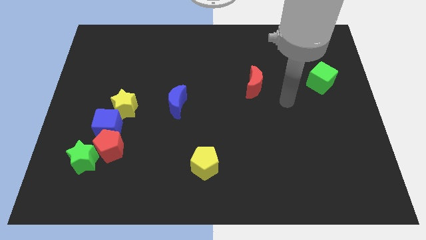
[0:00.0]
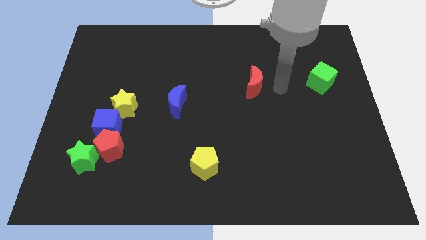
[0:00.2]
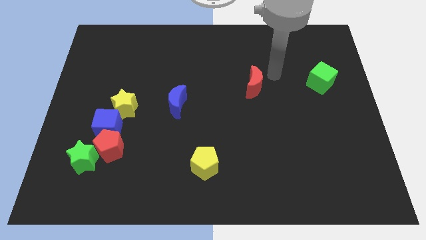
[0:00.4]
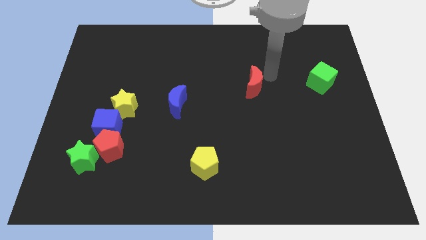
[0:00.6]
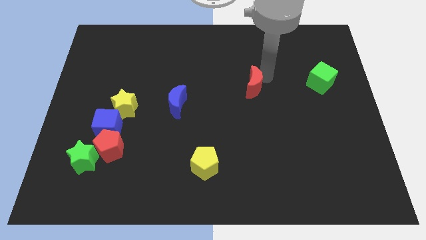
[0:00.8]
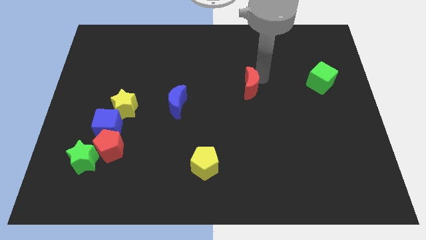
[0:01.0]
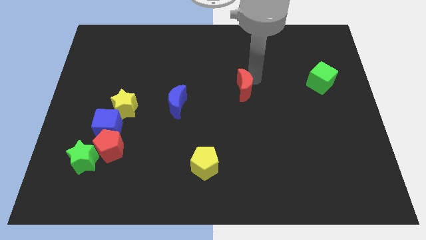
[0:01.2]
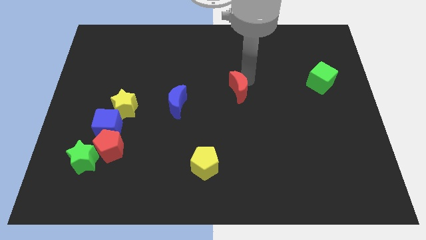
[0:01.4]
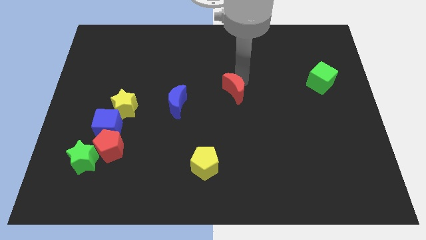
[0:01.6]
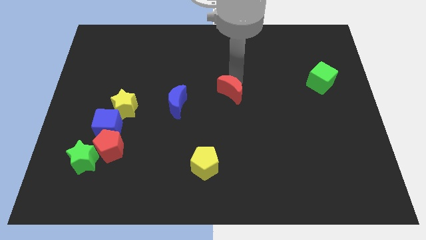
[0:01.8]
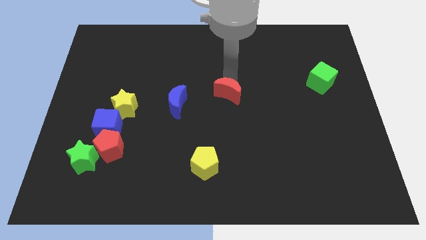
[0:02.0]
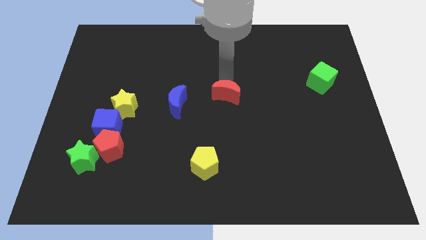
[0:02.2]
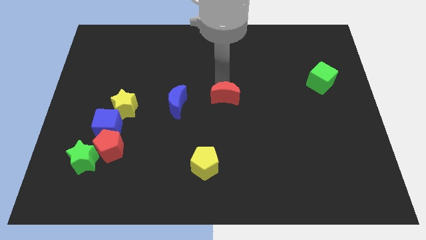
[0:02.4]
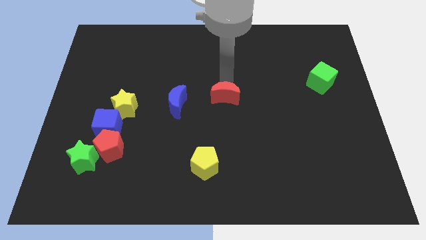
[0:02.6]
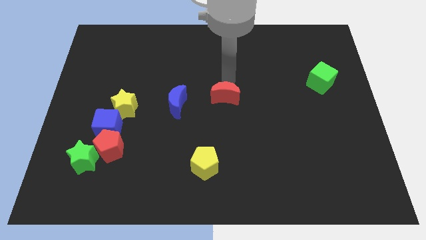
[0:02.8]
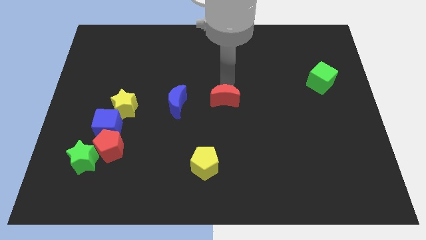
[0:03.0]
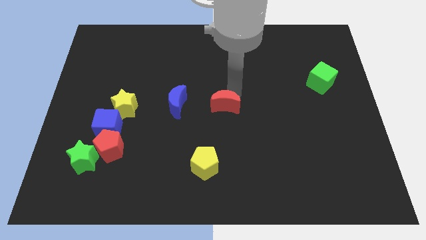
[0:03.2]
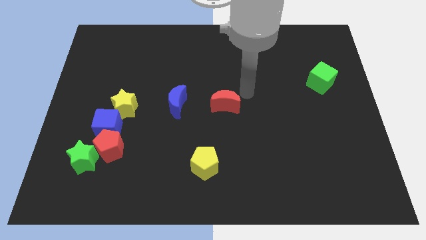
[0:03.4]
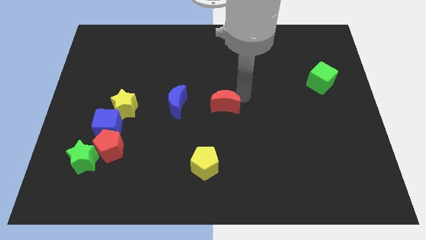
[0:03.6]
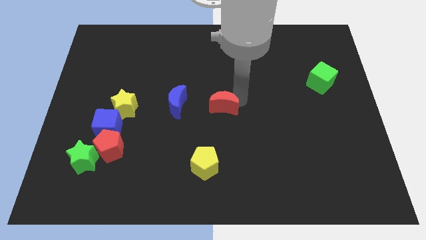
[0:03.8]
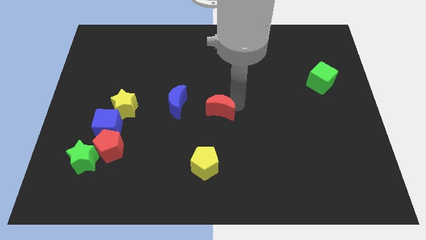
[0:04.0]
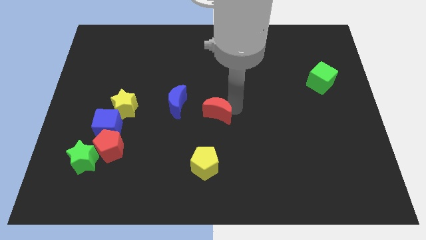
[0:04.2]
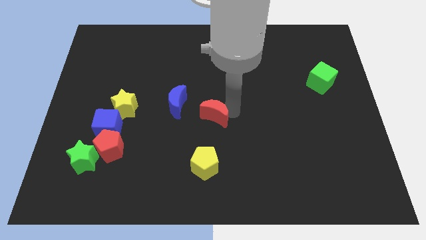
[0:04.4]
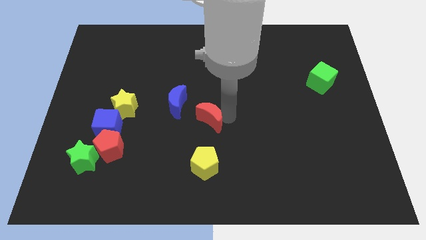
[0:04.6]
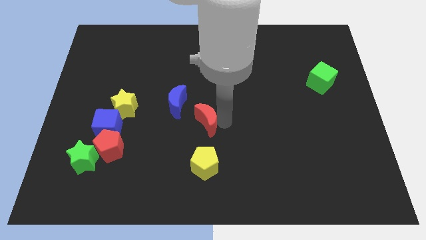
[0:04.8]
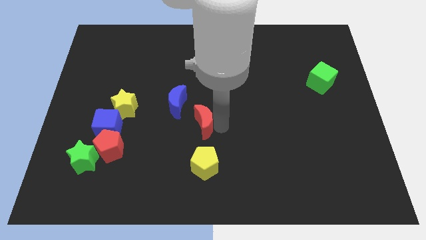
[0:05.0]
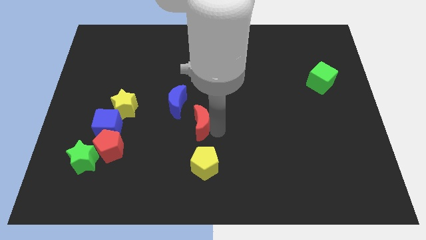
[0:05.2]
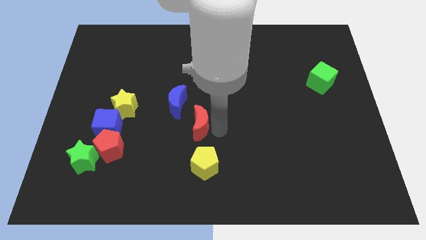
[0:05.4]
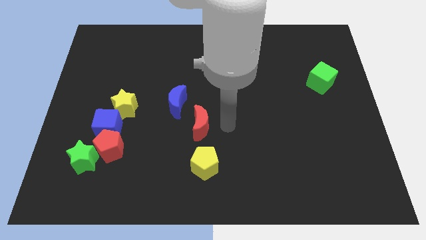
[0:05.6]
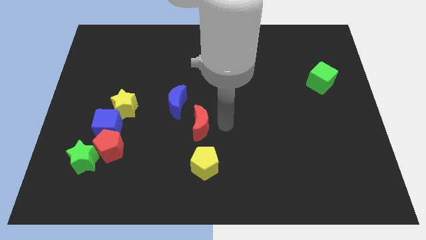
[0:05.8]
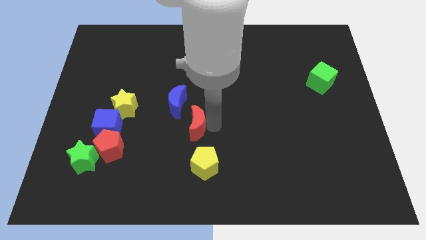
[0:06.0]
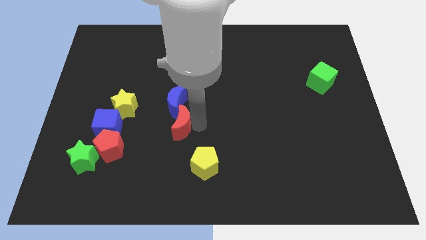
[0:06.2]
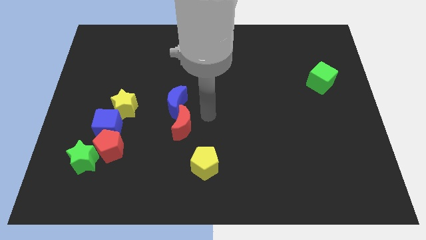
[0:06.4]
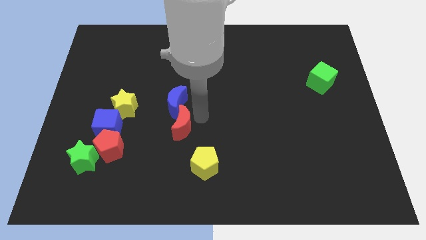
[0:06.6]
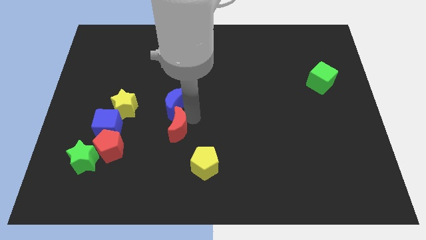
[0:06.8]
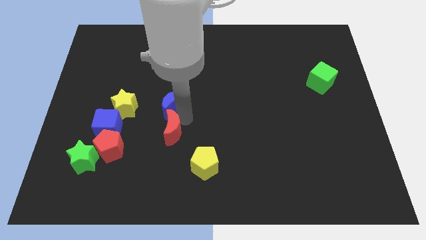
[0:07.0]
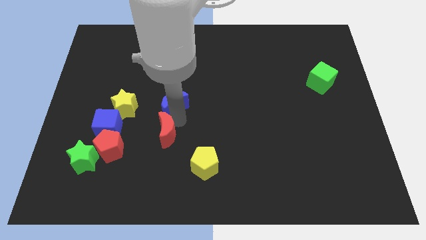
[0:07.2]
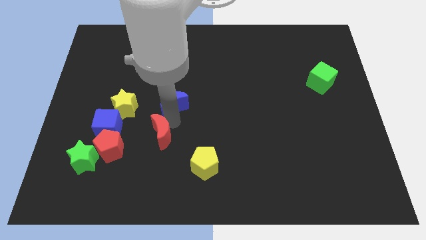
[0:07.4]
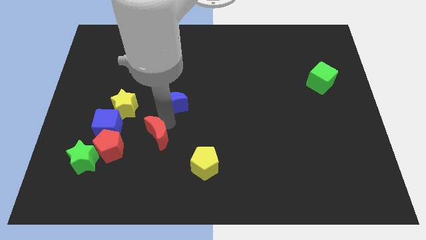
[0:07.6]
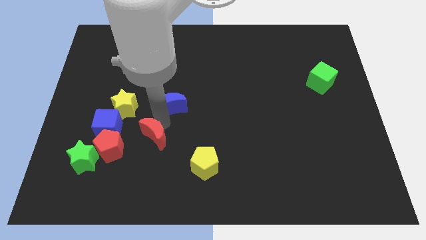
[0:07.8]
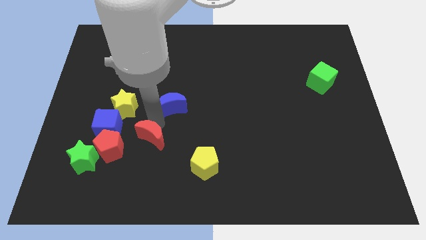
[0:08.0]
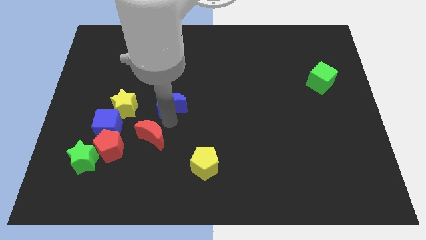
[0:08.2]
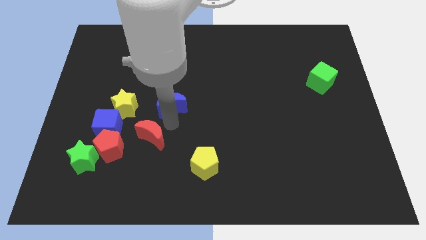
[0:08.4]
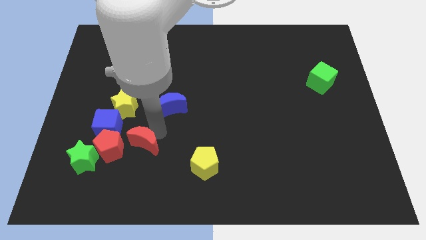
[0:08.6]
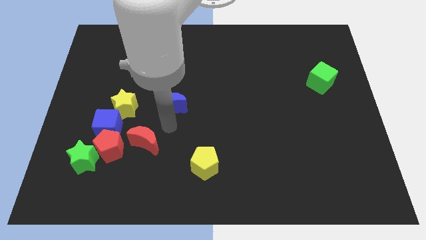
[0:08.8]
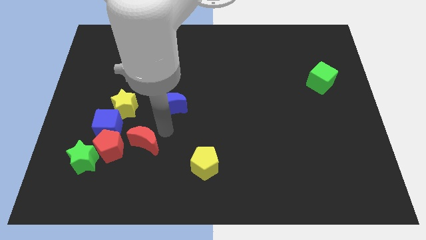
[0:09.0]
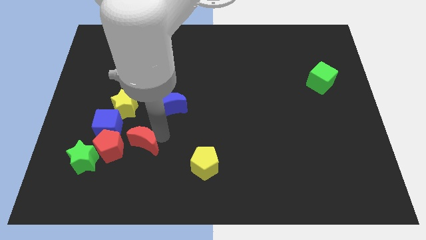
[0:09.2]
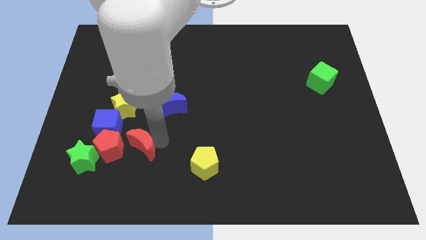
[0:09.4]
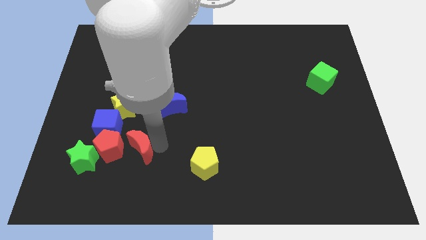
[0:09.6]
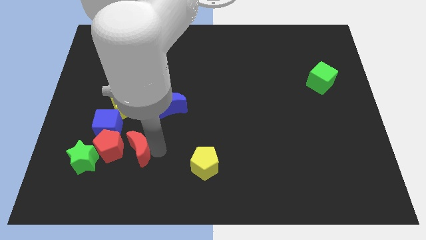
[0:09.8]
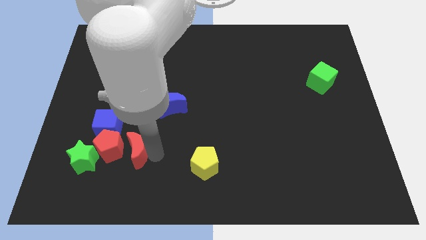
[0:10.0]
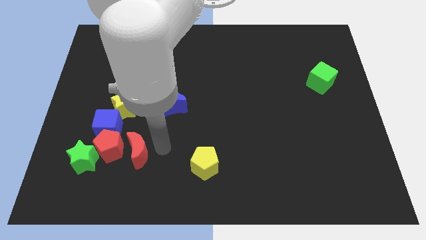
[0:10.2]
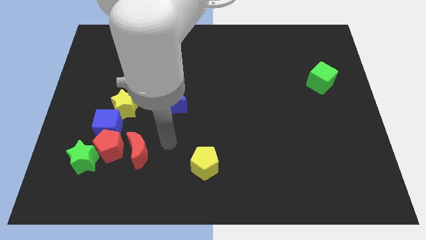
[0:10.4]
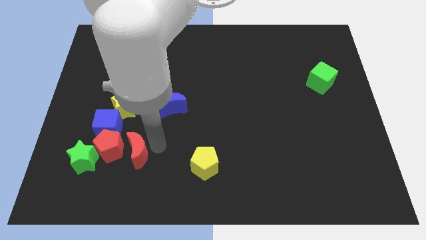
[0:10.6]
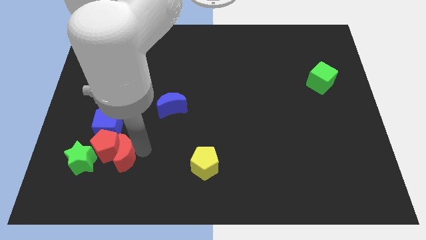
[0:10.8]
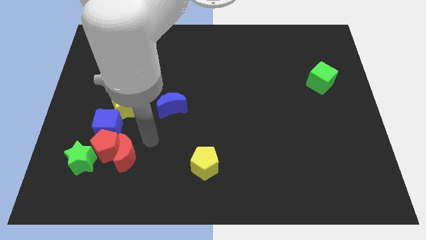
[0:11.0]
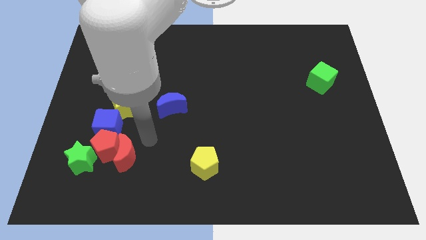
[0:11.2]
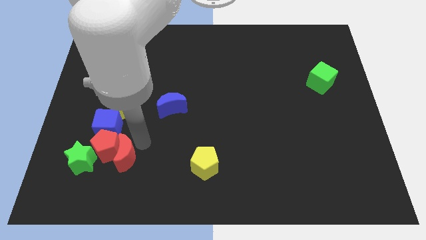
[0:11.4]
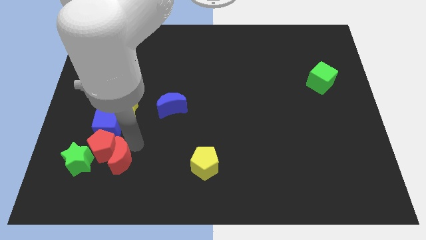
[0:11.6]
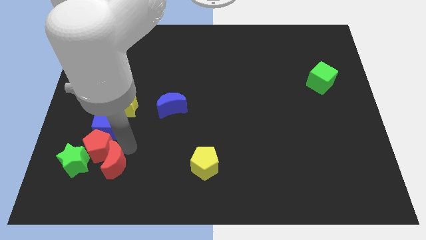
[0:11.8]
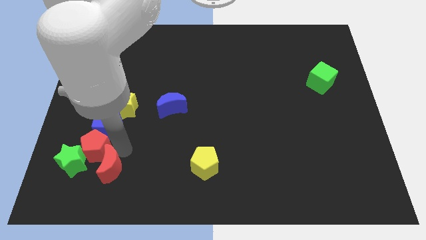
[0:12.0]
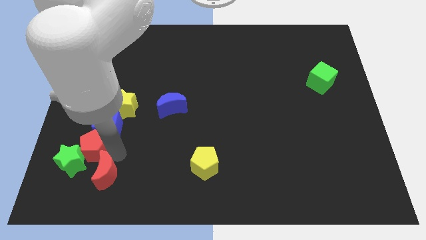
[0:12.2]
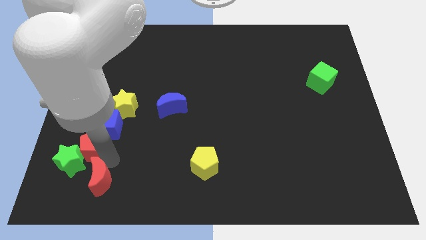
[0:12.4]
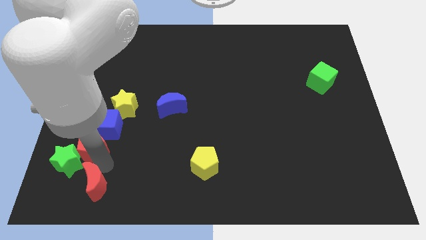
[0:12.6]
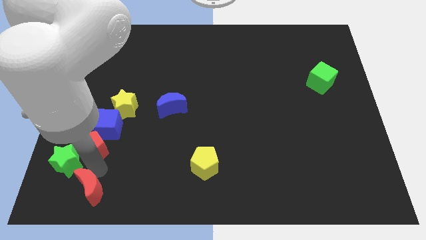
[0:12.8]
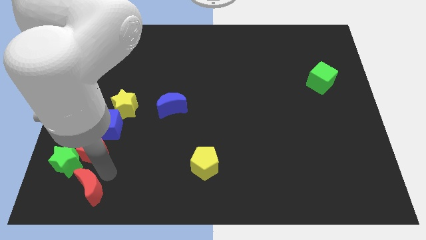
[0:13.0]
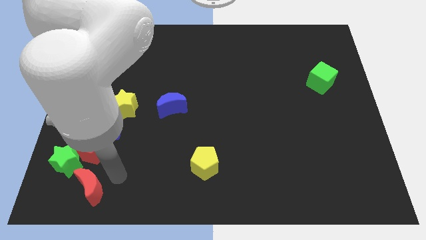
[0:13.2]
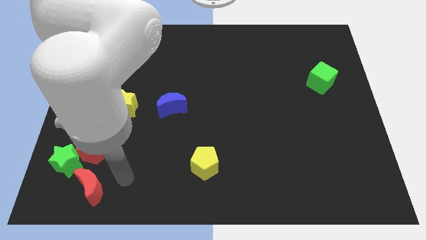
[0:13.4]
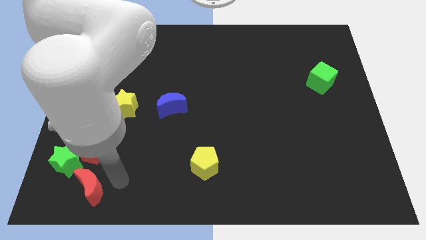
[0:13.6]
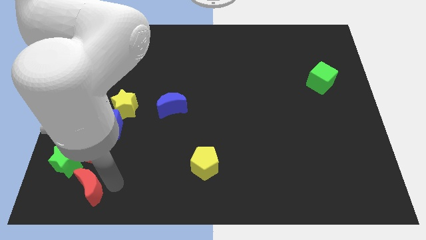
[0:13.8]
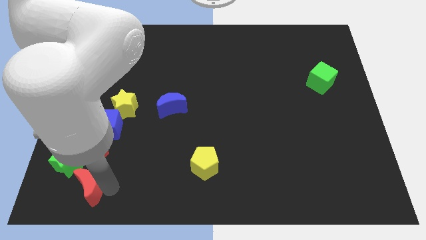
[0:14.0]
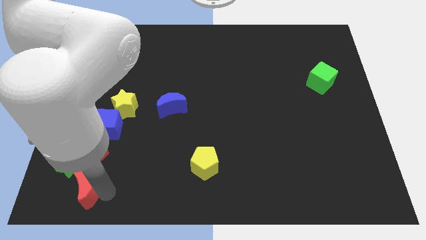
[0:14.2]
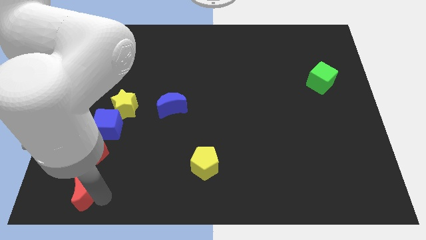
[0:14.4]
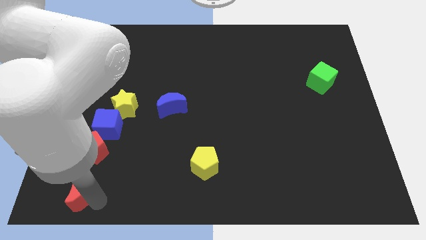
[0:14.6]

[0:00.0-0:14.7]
push the red moon to the lower left corner
